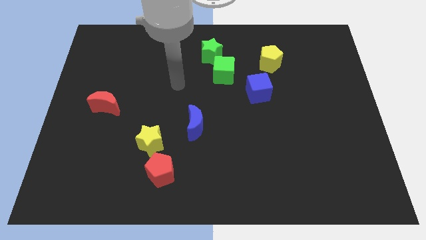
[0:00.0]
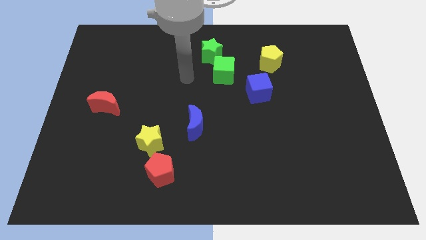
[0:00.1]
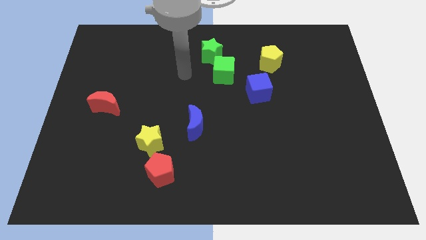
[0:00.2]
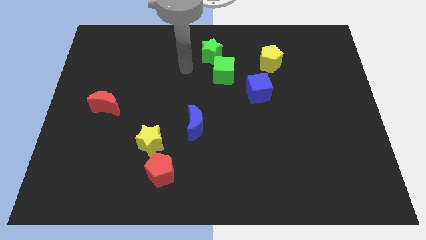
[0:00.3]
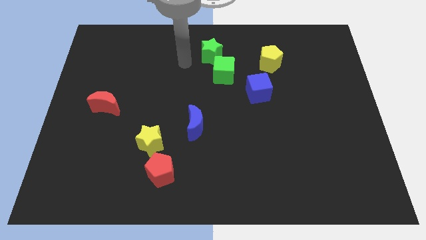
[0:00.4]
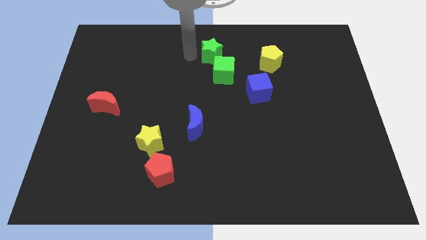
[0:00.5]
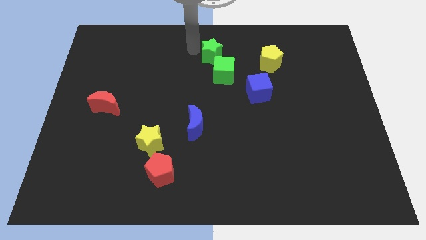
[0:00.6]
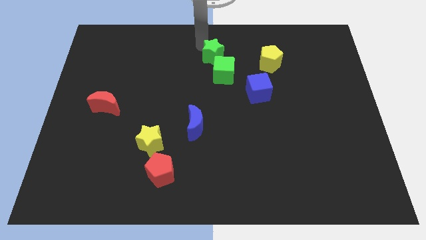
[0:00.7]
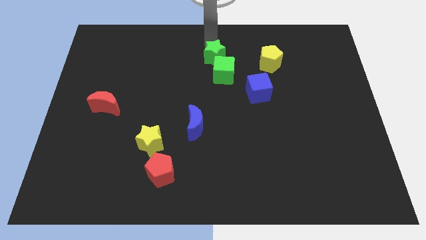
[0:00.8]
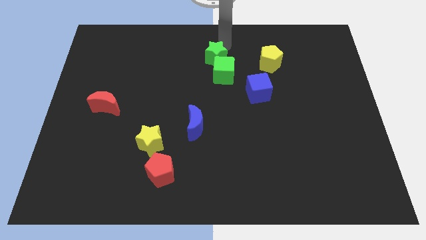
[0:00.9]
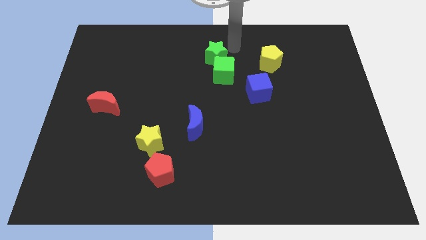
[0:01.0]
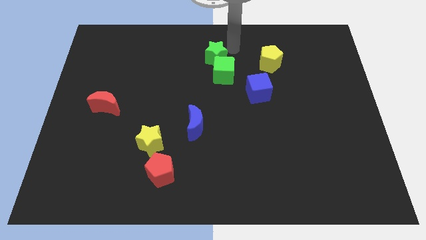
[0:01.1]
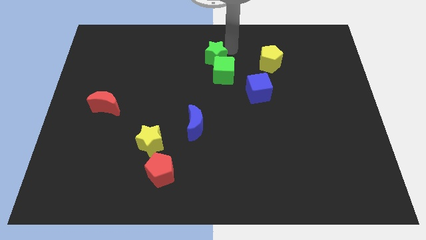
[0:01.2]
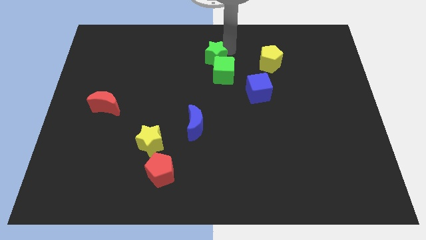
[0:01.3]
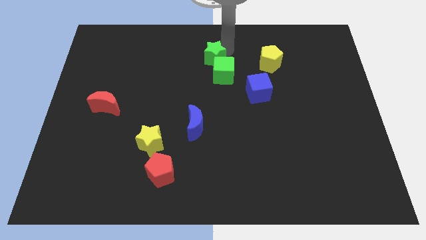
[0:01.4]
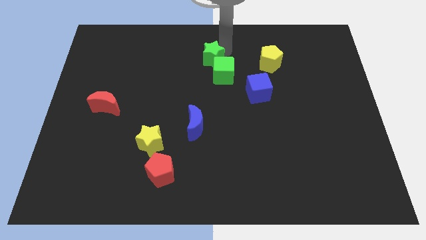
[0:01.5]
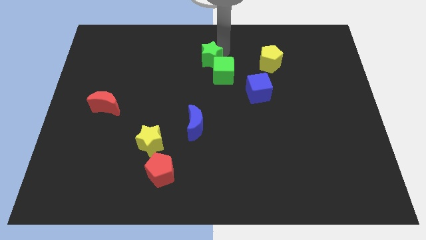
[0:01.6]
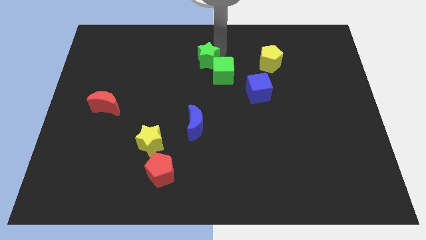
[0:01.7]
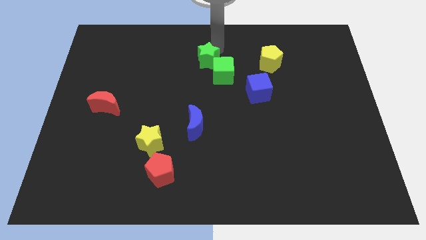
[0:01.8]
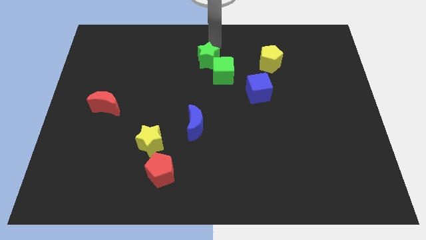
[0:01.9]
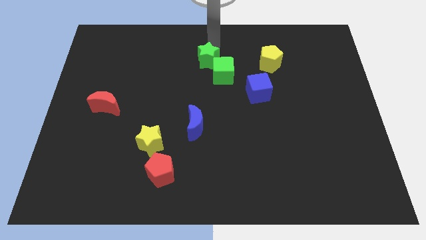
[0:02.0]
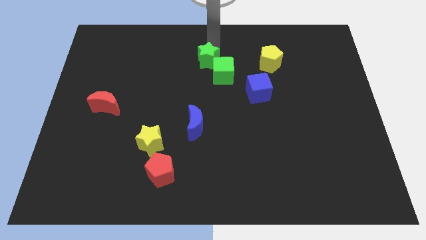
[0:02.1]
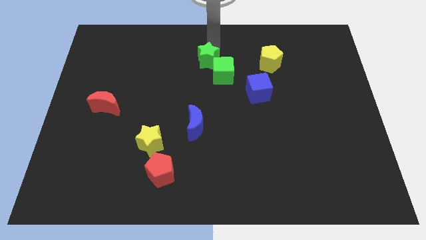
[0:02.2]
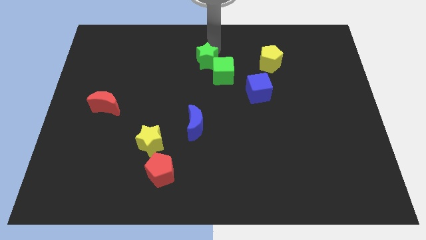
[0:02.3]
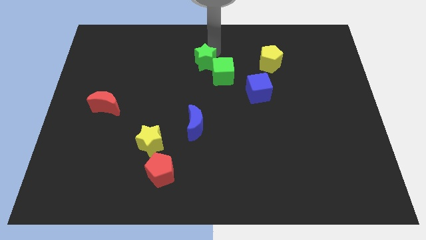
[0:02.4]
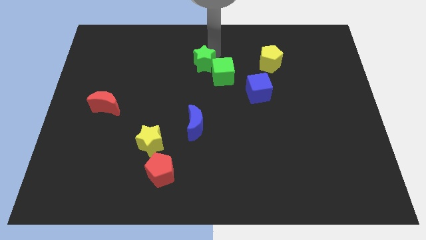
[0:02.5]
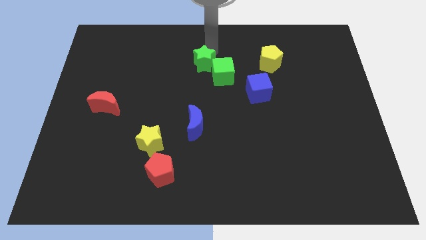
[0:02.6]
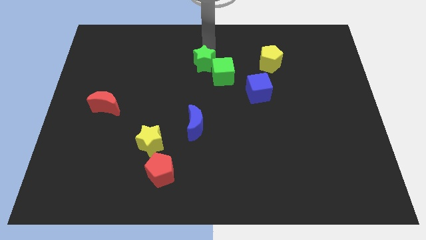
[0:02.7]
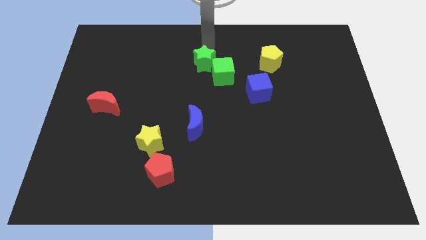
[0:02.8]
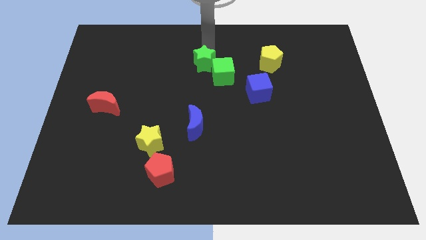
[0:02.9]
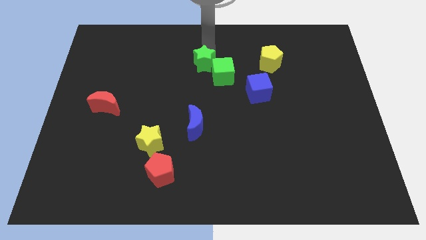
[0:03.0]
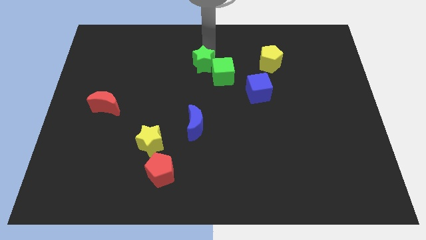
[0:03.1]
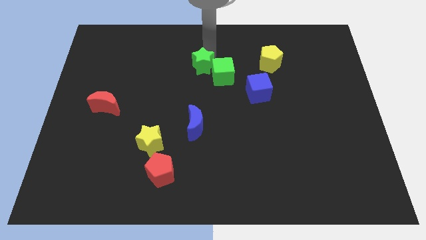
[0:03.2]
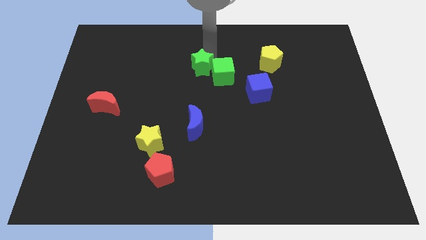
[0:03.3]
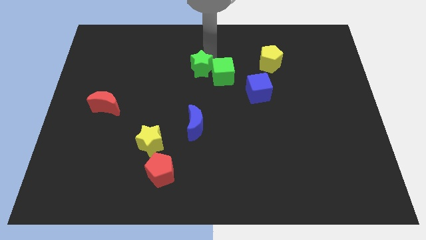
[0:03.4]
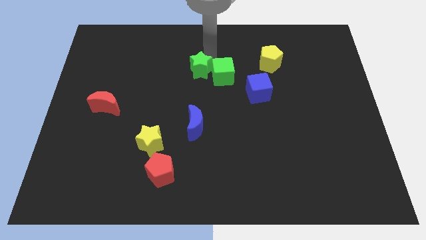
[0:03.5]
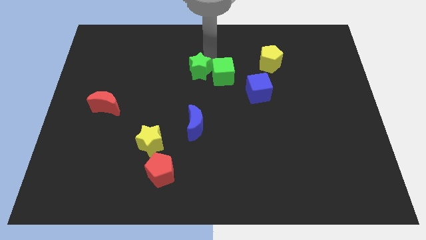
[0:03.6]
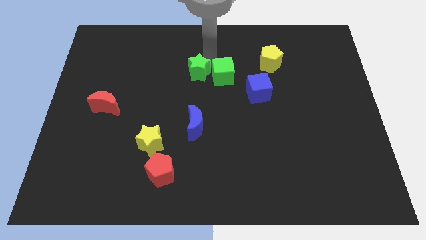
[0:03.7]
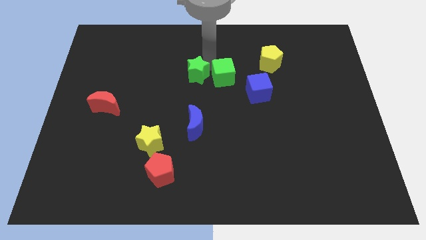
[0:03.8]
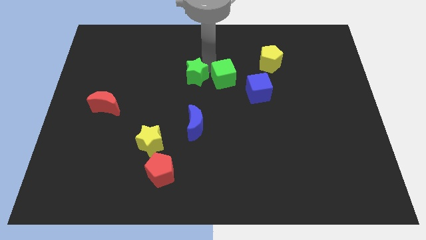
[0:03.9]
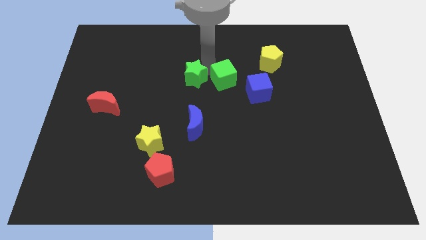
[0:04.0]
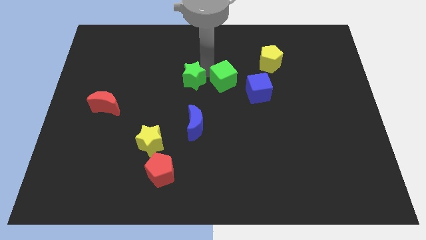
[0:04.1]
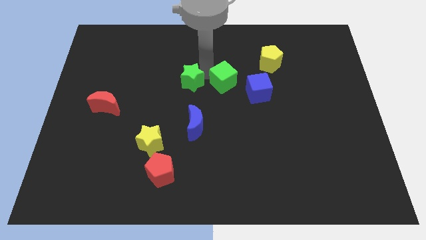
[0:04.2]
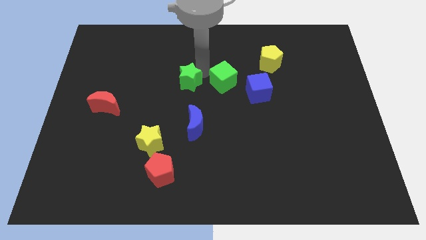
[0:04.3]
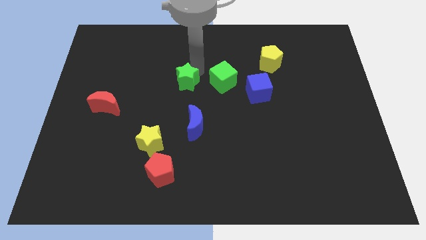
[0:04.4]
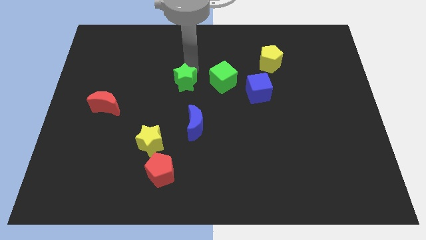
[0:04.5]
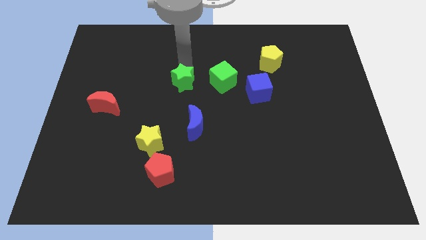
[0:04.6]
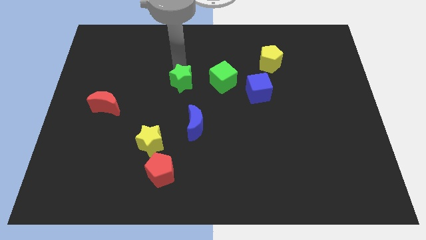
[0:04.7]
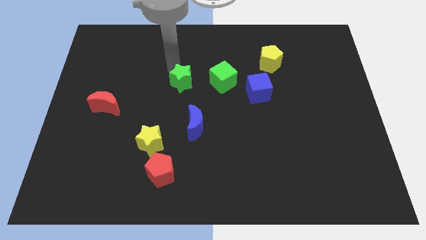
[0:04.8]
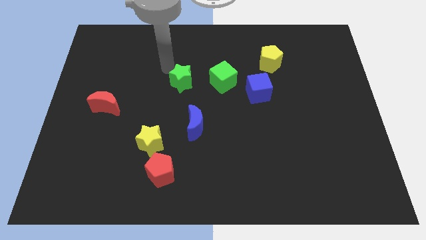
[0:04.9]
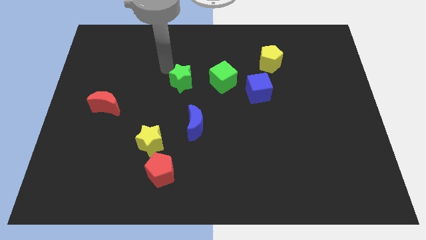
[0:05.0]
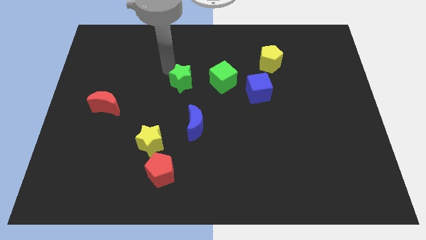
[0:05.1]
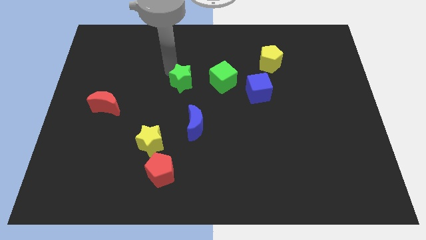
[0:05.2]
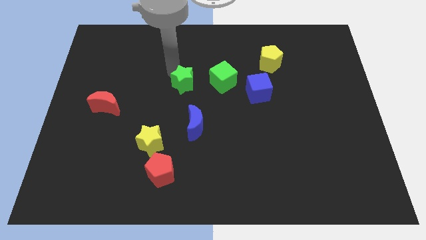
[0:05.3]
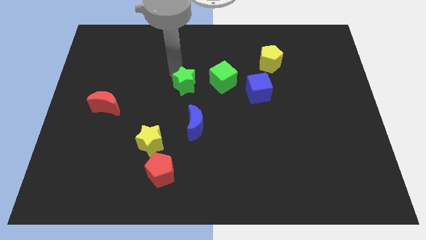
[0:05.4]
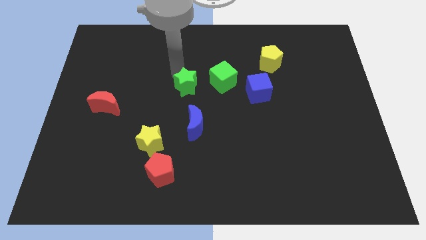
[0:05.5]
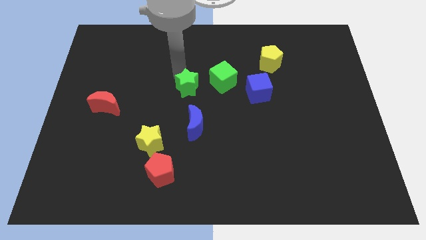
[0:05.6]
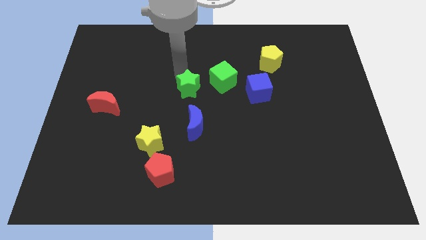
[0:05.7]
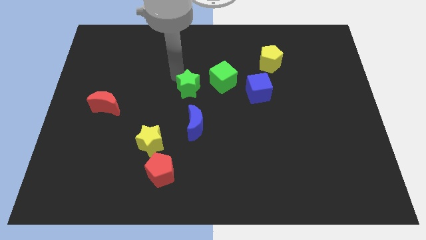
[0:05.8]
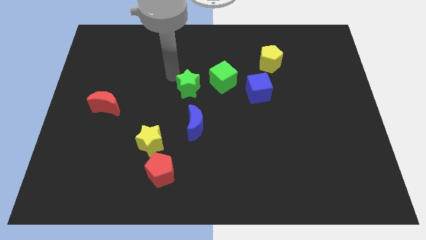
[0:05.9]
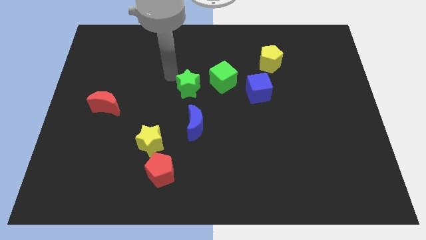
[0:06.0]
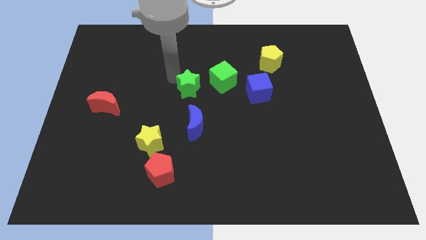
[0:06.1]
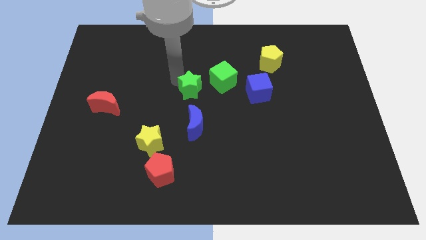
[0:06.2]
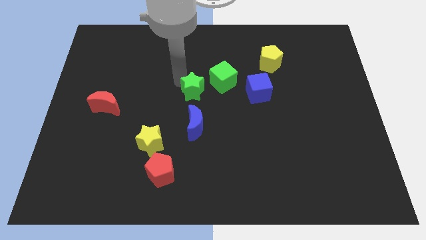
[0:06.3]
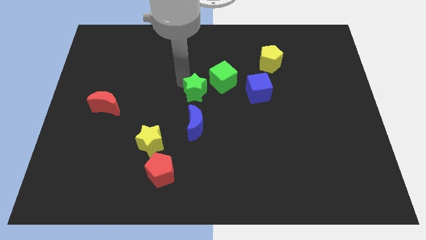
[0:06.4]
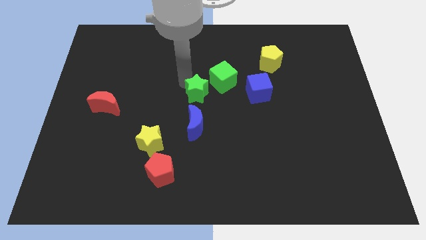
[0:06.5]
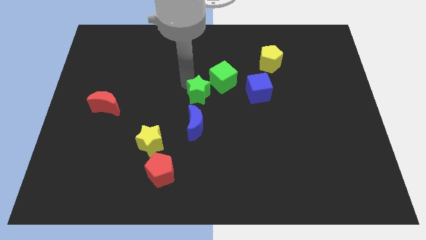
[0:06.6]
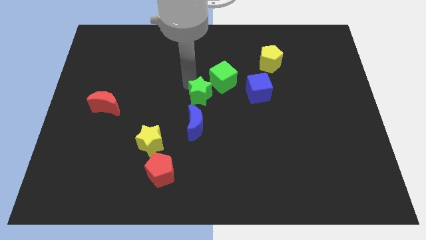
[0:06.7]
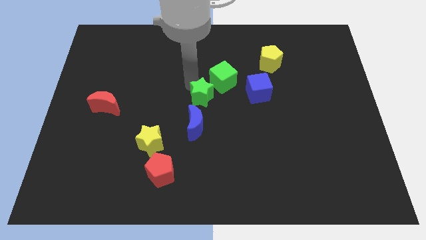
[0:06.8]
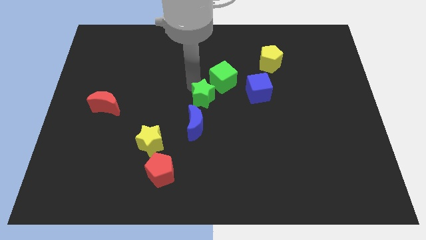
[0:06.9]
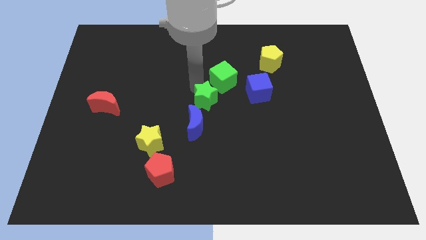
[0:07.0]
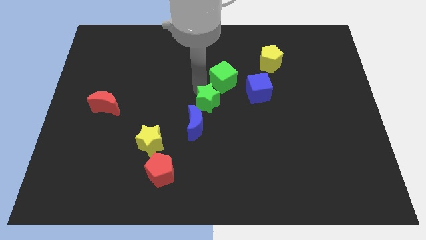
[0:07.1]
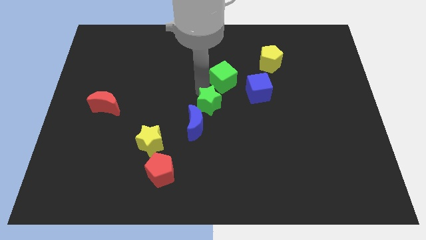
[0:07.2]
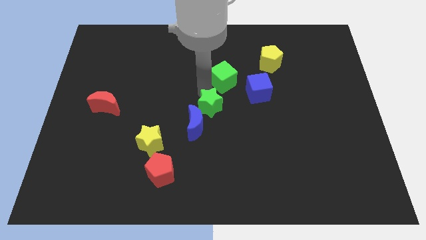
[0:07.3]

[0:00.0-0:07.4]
put the green star close to the blue moon
